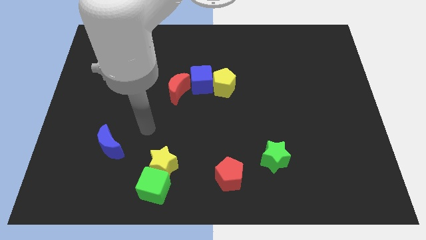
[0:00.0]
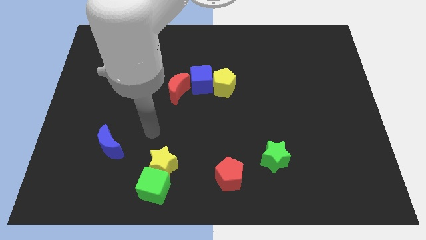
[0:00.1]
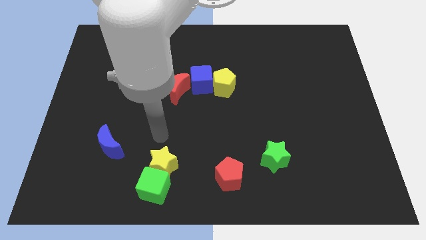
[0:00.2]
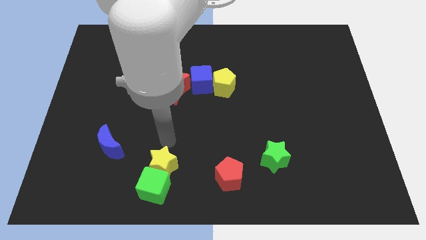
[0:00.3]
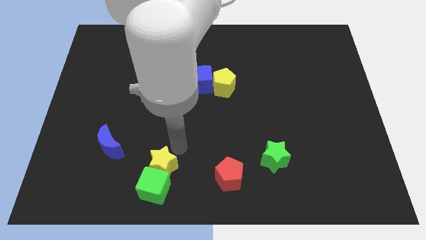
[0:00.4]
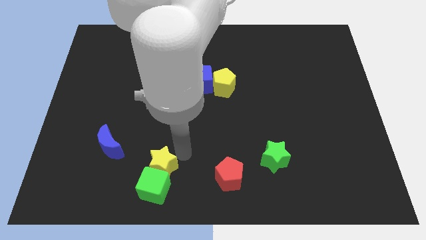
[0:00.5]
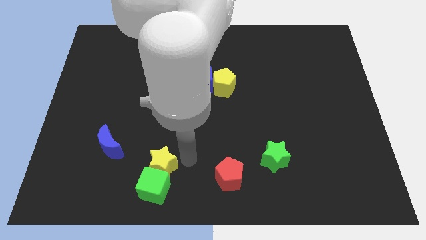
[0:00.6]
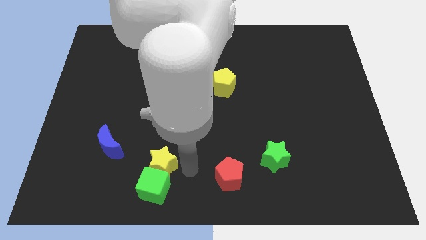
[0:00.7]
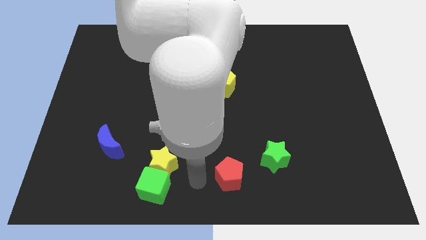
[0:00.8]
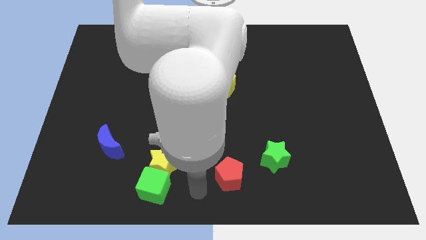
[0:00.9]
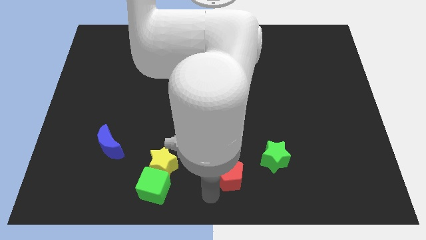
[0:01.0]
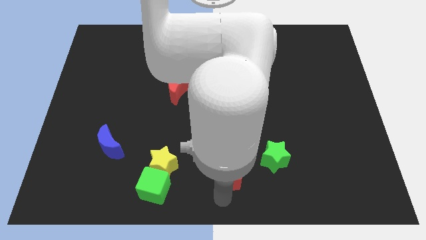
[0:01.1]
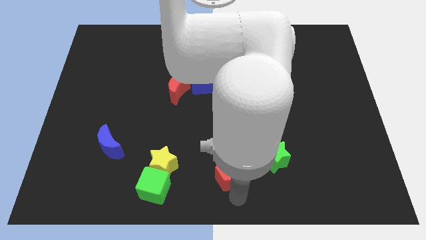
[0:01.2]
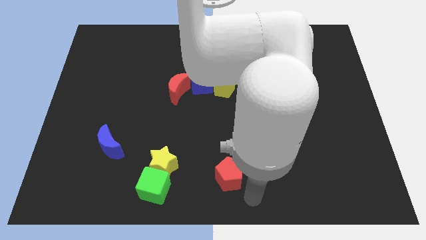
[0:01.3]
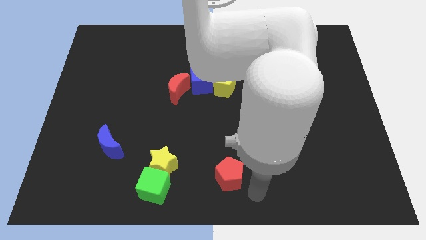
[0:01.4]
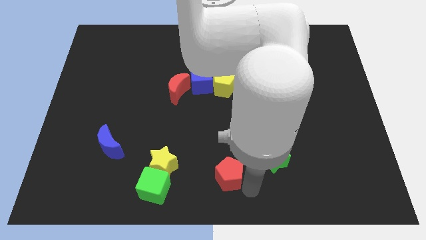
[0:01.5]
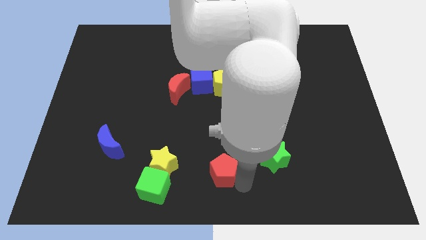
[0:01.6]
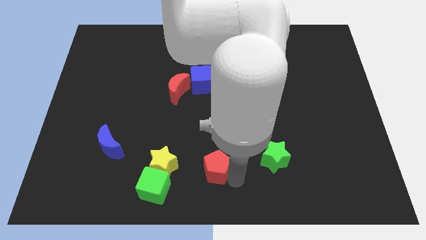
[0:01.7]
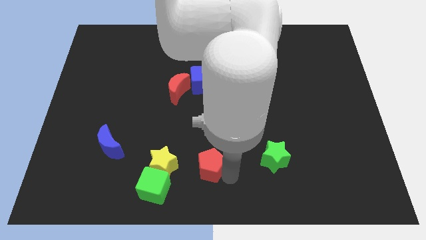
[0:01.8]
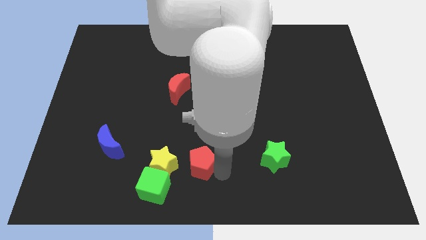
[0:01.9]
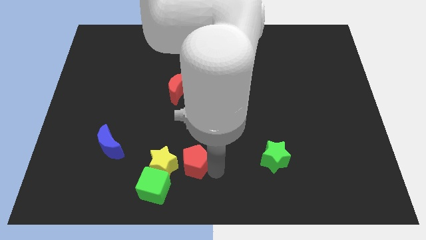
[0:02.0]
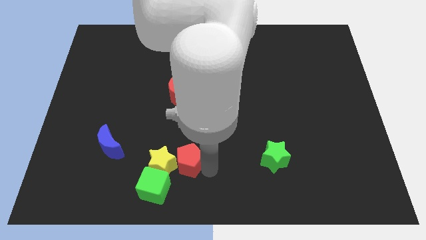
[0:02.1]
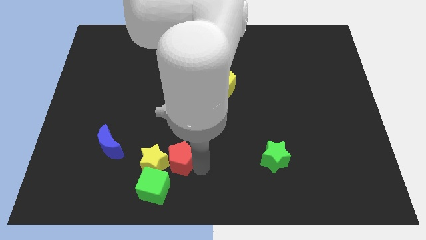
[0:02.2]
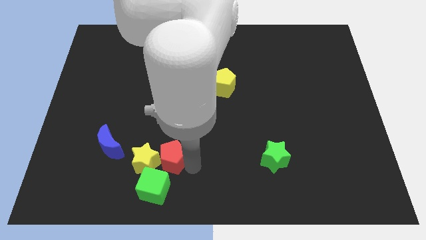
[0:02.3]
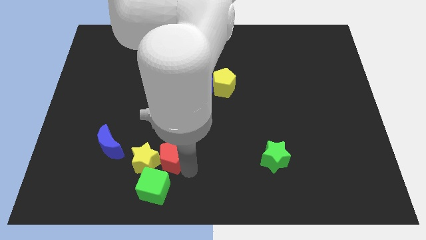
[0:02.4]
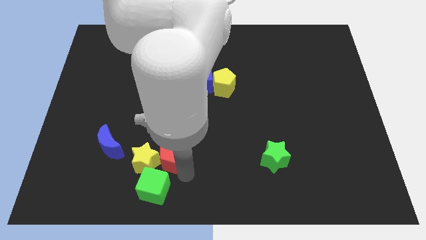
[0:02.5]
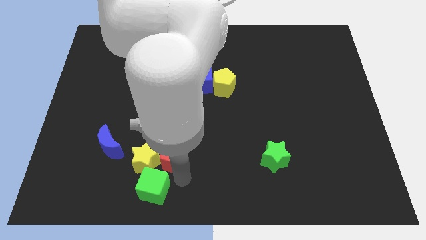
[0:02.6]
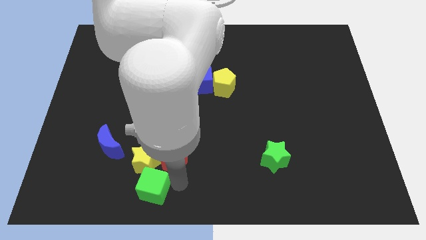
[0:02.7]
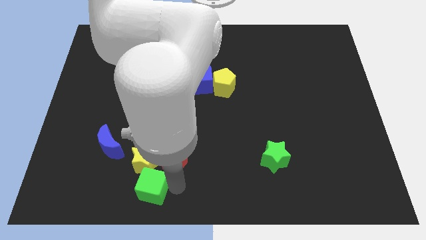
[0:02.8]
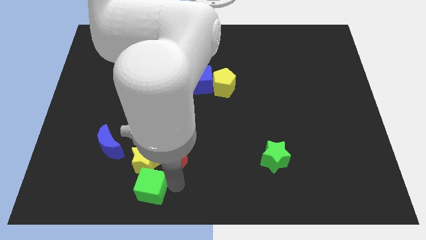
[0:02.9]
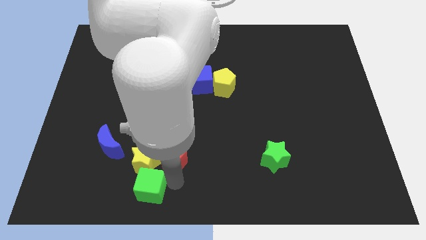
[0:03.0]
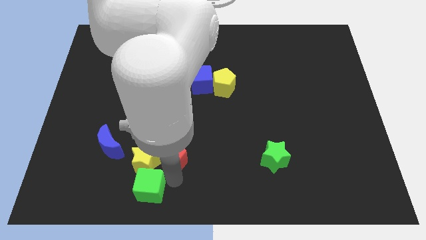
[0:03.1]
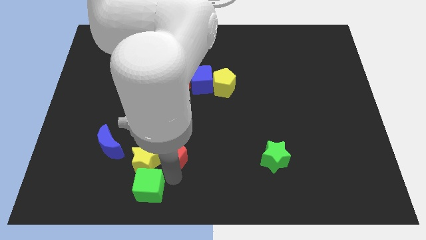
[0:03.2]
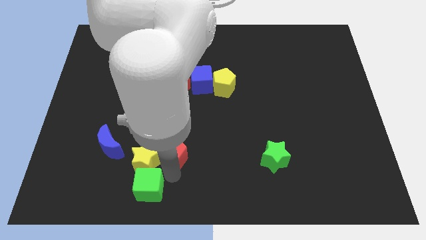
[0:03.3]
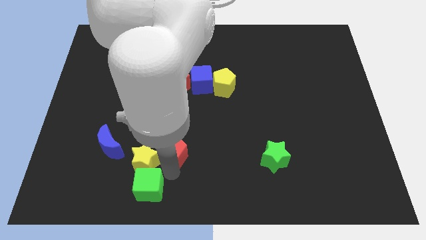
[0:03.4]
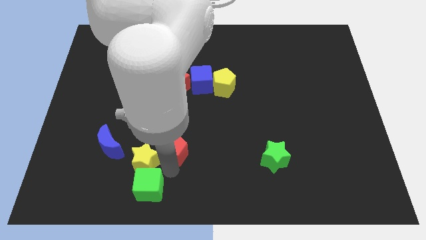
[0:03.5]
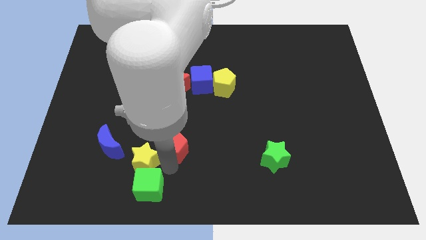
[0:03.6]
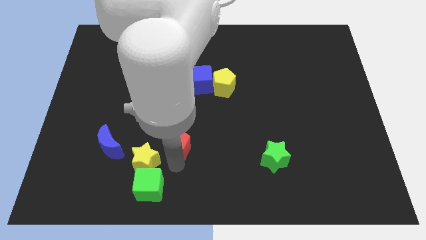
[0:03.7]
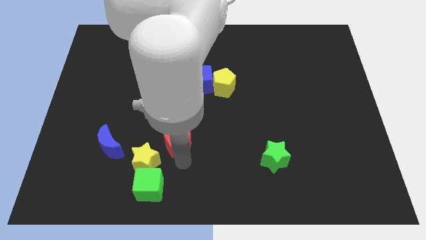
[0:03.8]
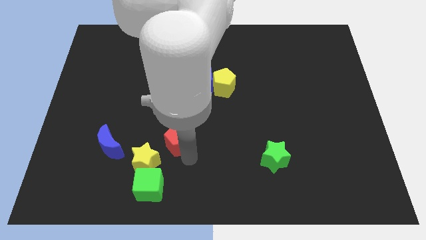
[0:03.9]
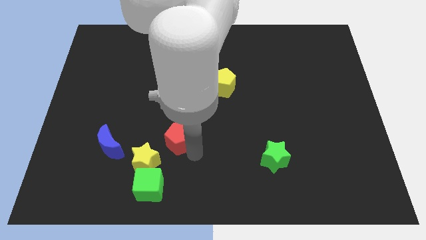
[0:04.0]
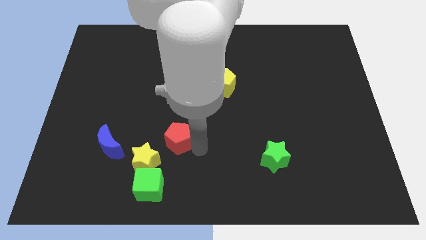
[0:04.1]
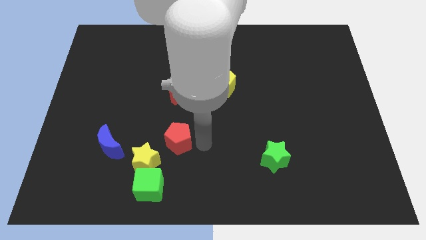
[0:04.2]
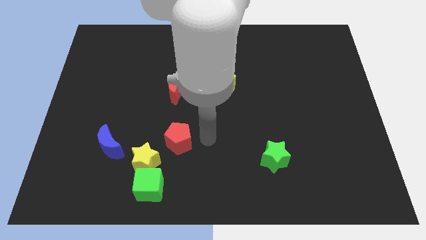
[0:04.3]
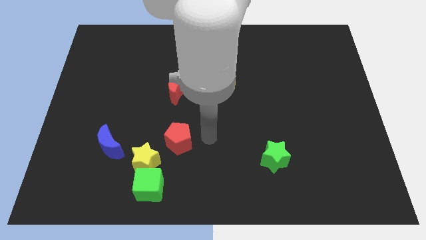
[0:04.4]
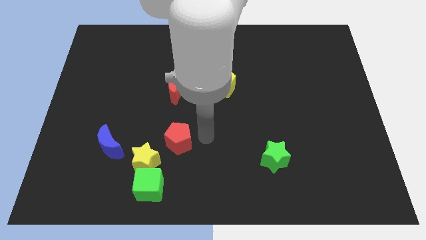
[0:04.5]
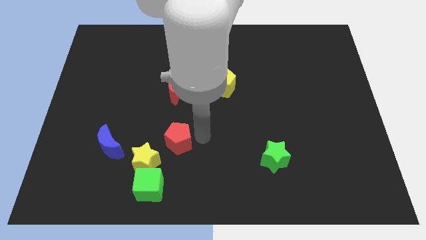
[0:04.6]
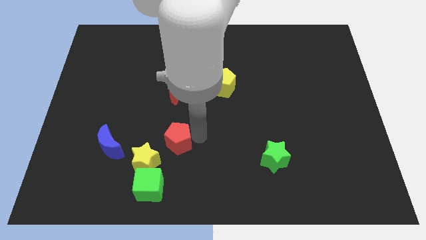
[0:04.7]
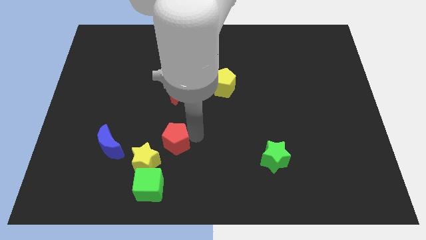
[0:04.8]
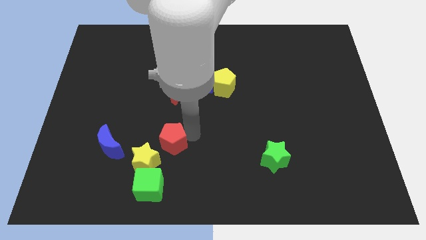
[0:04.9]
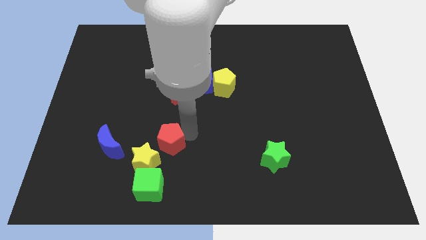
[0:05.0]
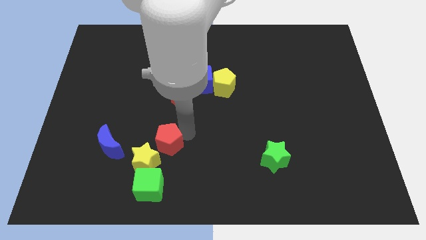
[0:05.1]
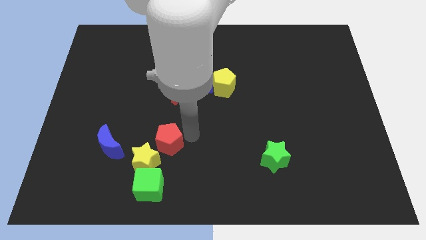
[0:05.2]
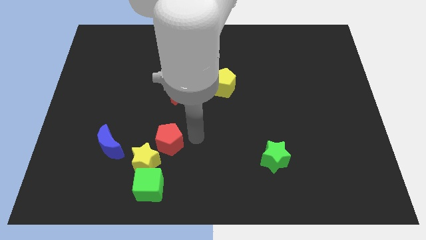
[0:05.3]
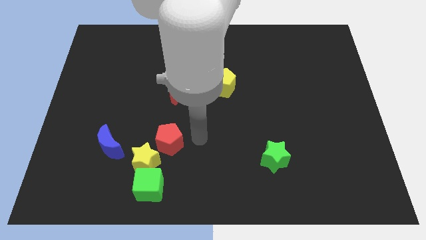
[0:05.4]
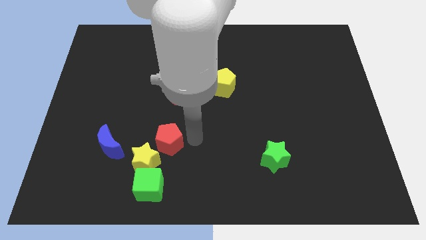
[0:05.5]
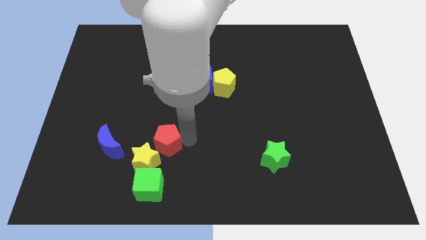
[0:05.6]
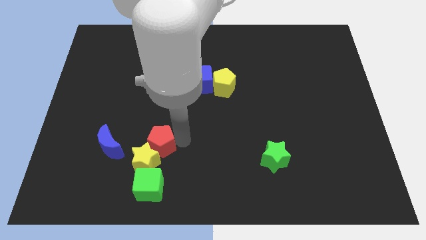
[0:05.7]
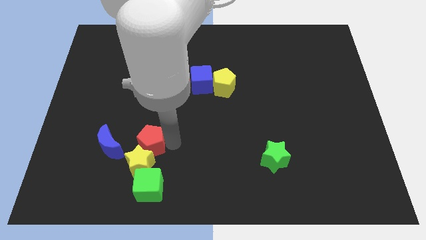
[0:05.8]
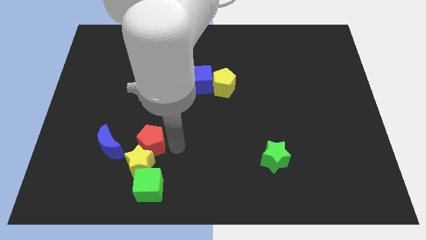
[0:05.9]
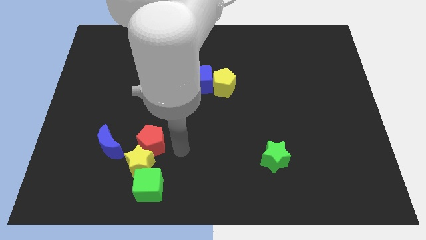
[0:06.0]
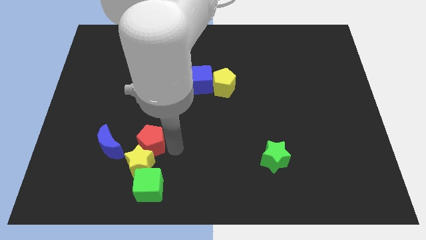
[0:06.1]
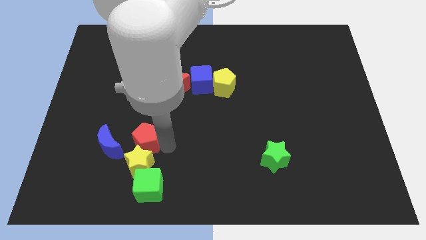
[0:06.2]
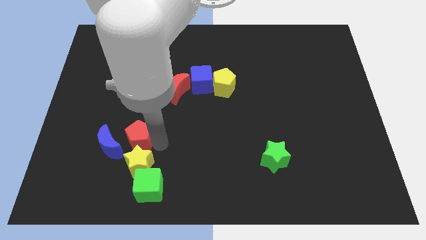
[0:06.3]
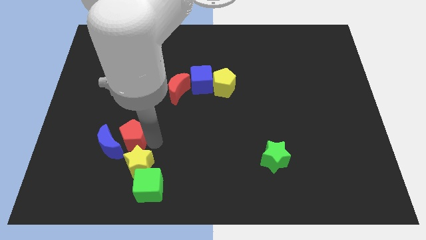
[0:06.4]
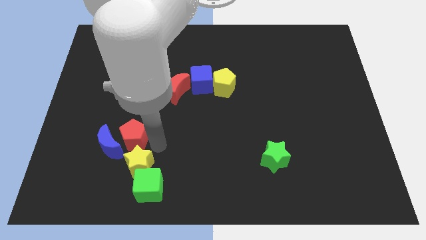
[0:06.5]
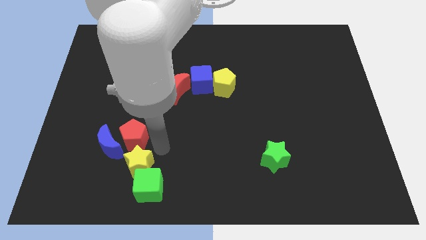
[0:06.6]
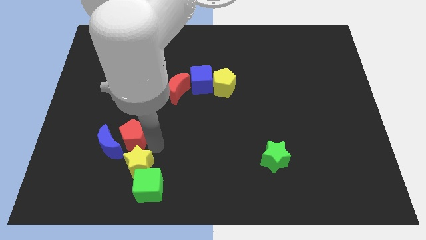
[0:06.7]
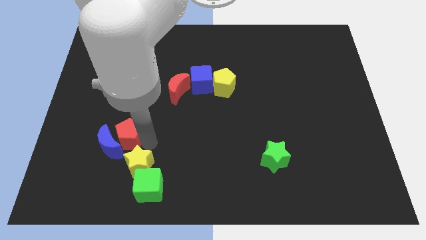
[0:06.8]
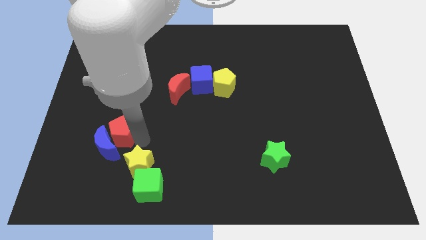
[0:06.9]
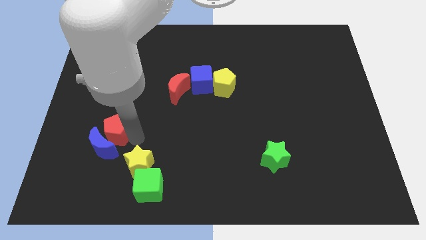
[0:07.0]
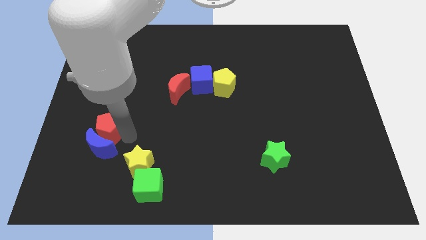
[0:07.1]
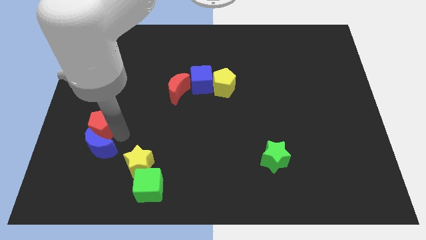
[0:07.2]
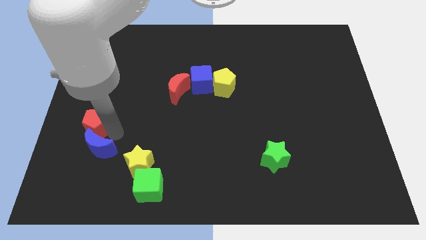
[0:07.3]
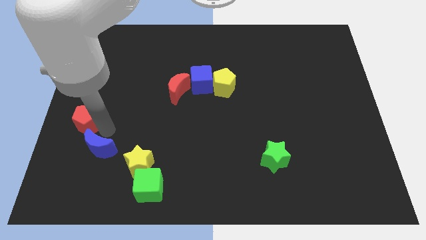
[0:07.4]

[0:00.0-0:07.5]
put the red pentagon to the left side
